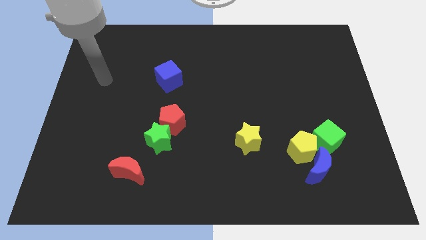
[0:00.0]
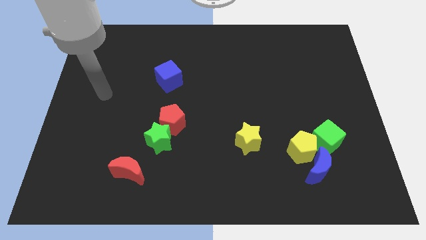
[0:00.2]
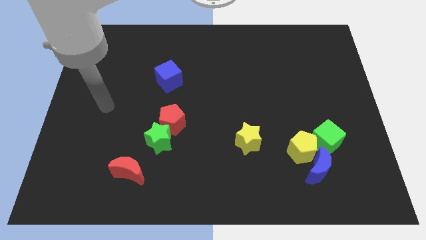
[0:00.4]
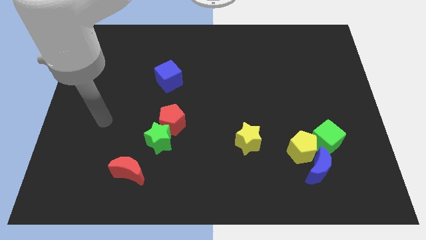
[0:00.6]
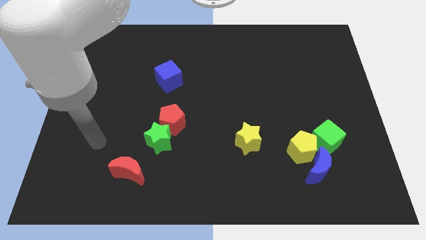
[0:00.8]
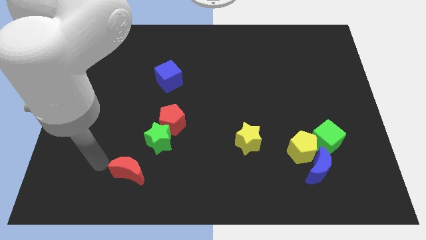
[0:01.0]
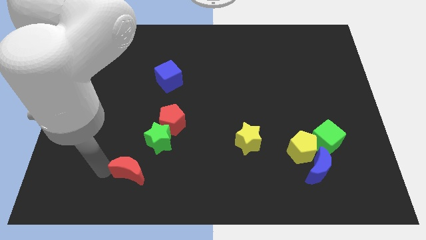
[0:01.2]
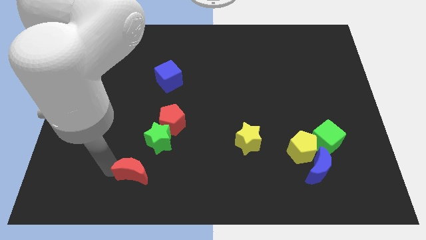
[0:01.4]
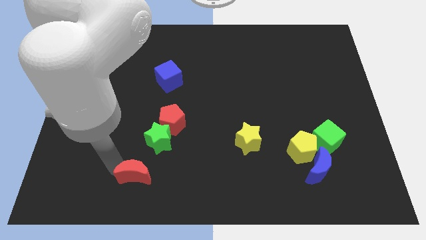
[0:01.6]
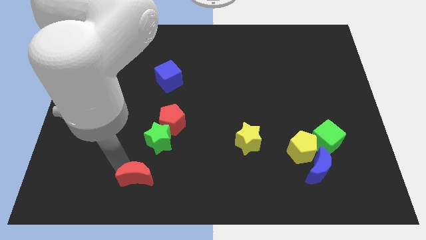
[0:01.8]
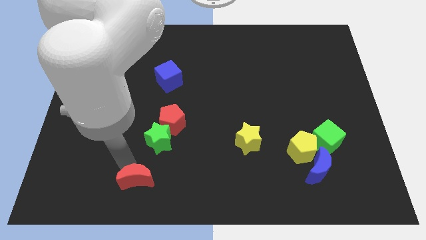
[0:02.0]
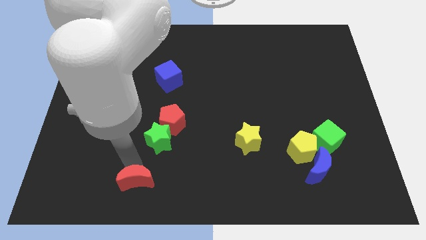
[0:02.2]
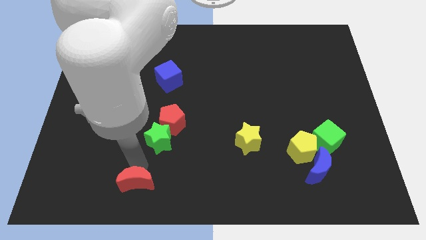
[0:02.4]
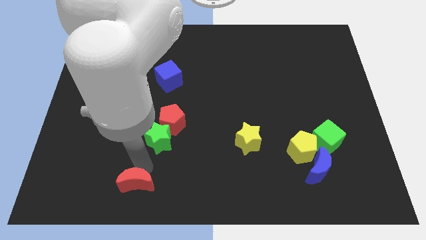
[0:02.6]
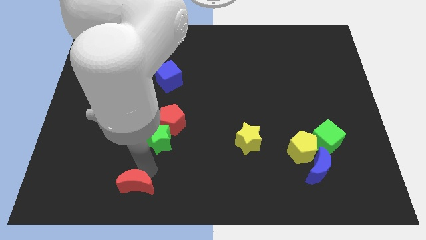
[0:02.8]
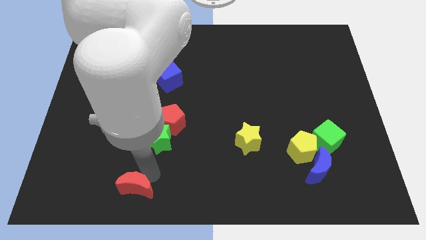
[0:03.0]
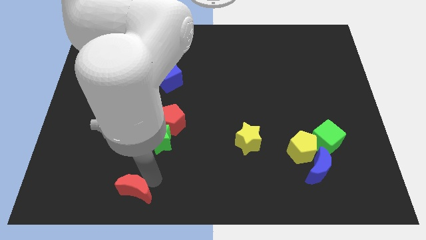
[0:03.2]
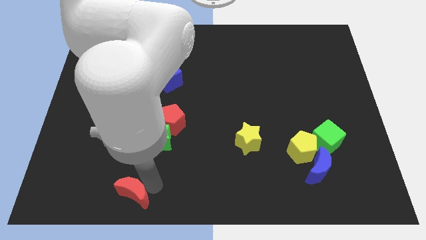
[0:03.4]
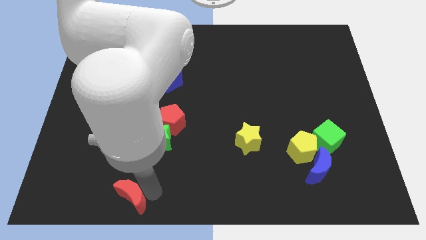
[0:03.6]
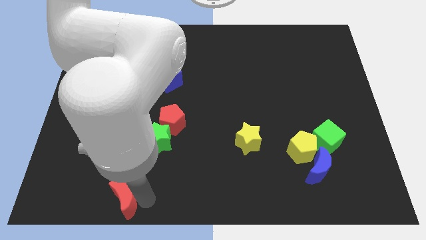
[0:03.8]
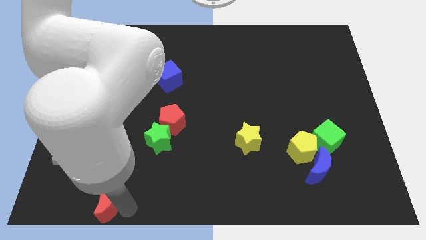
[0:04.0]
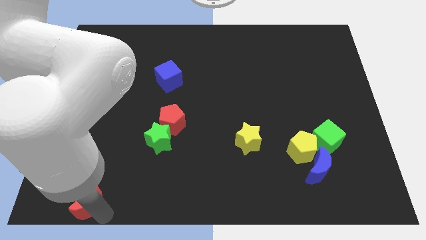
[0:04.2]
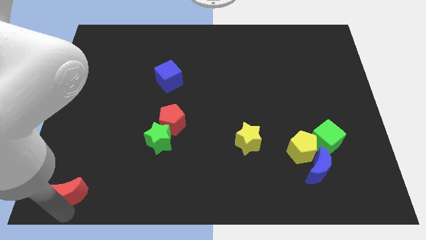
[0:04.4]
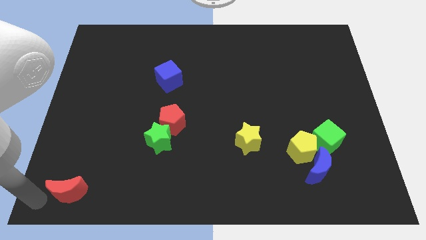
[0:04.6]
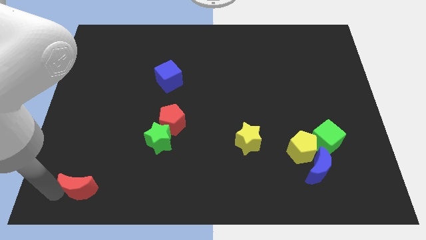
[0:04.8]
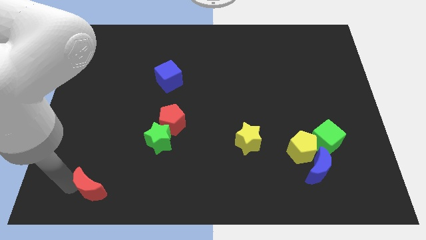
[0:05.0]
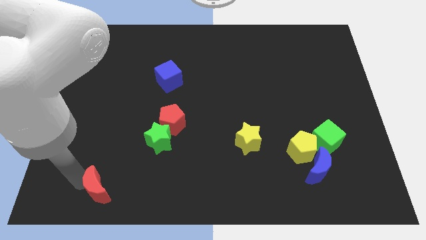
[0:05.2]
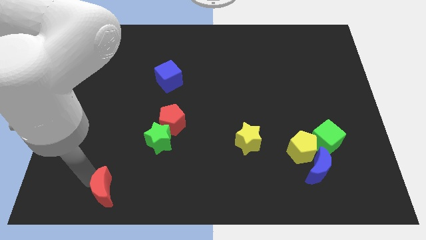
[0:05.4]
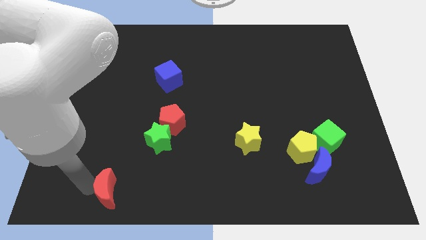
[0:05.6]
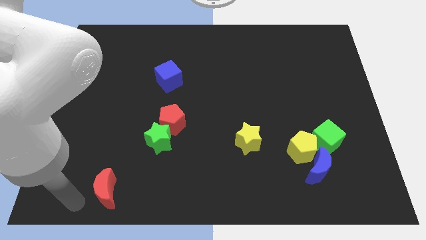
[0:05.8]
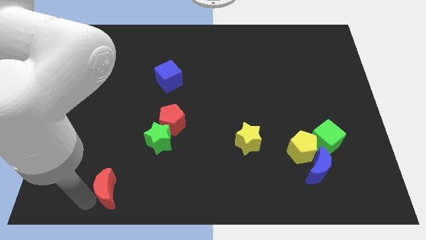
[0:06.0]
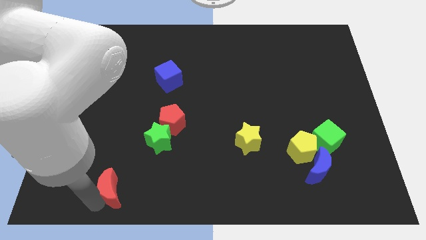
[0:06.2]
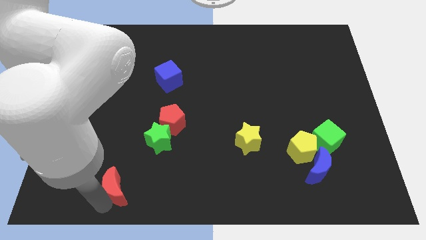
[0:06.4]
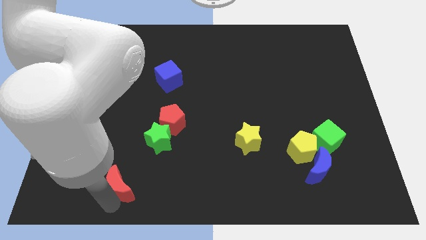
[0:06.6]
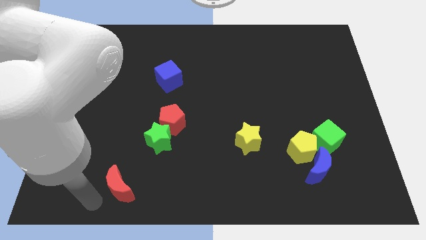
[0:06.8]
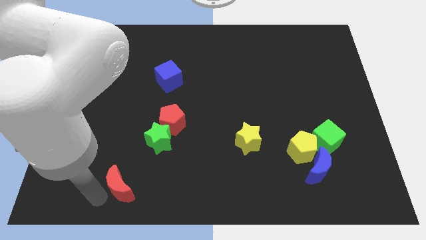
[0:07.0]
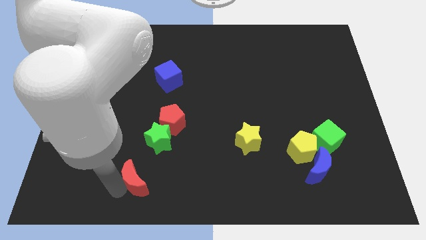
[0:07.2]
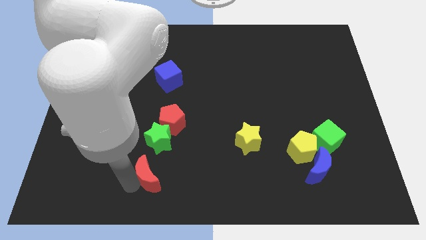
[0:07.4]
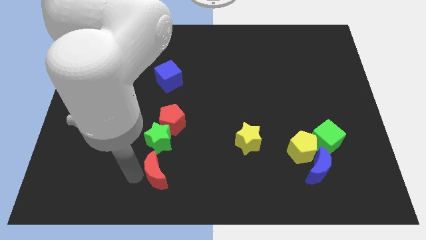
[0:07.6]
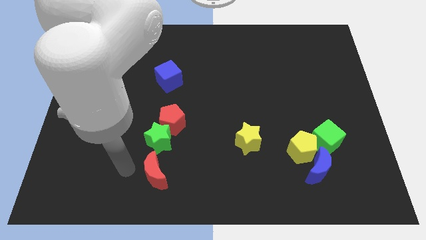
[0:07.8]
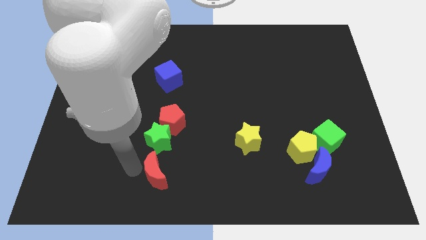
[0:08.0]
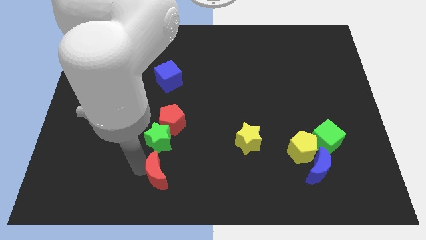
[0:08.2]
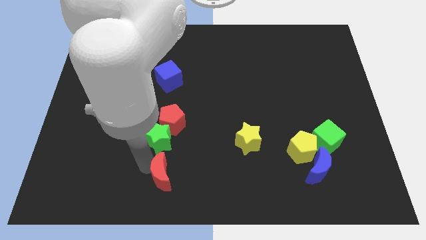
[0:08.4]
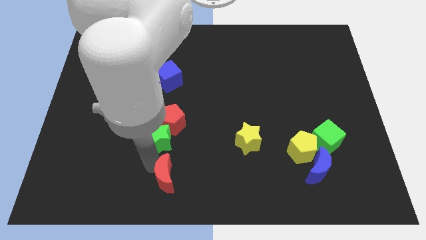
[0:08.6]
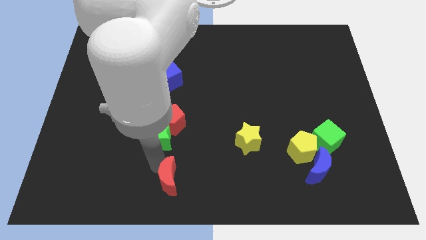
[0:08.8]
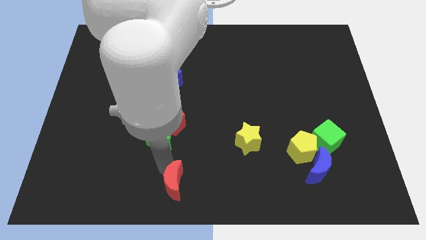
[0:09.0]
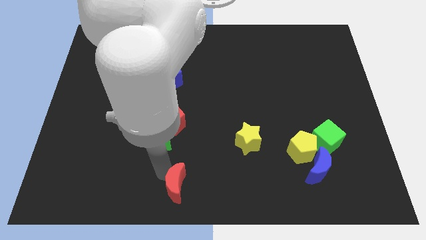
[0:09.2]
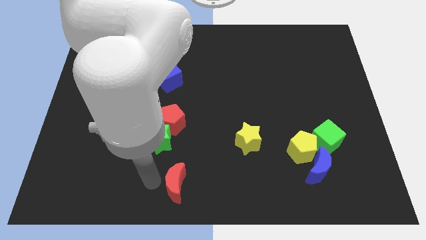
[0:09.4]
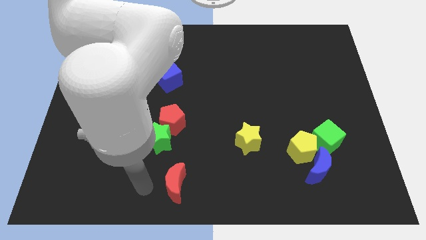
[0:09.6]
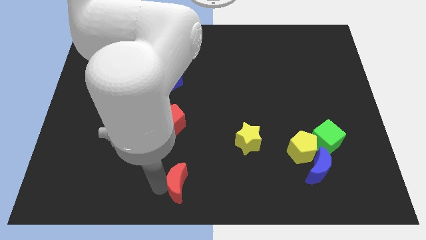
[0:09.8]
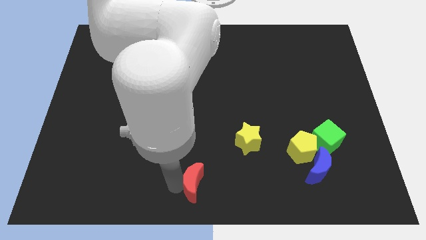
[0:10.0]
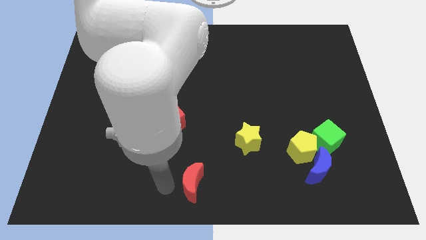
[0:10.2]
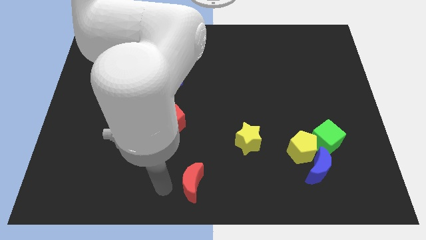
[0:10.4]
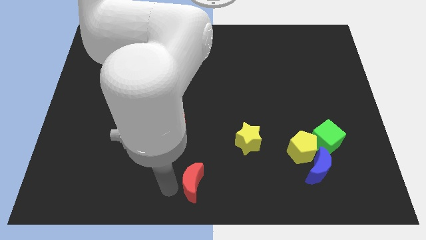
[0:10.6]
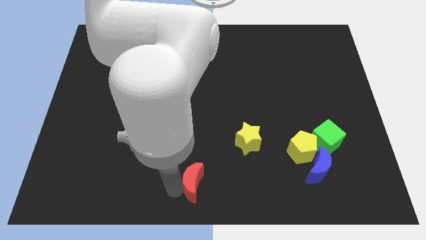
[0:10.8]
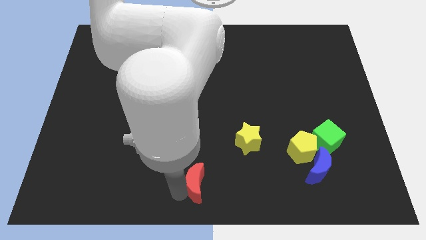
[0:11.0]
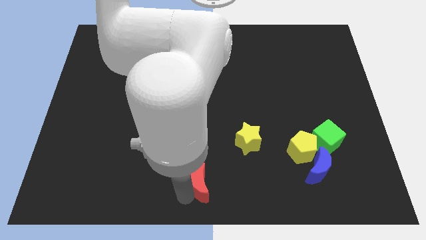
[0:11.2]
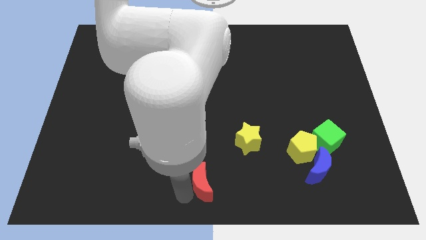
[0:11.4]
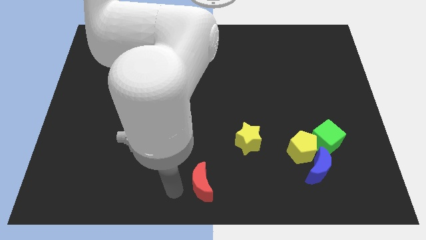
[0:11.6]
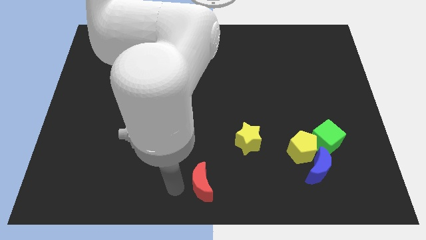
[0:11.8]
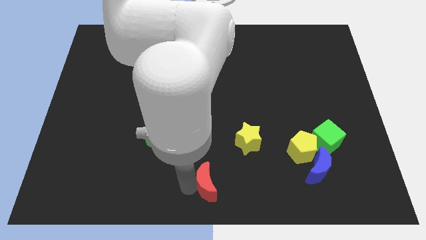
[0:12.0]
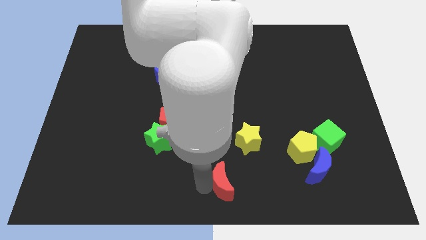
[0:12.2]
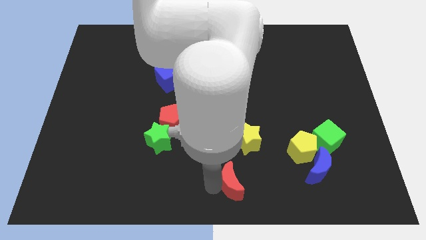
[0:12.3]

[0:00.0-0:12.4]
push the red moon to the right

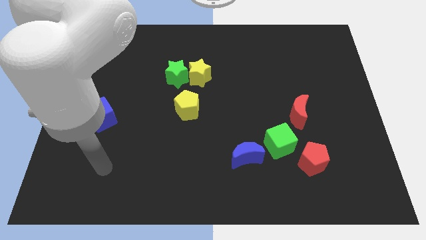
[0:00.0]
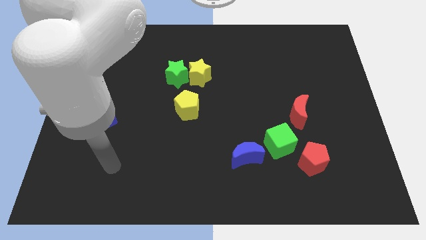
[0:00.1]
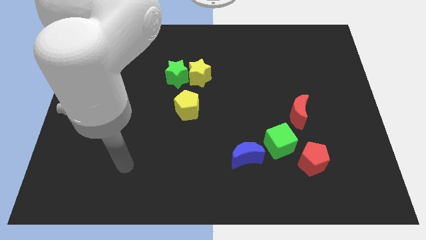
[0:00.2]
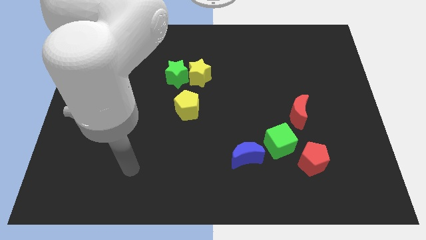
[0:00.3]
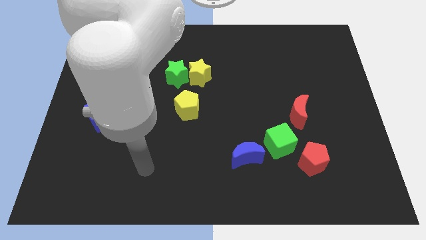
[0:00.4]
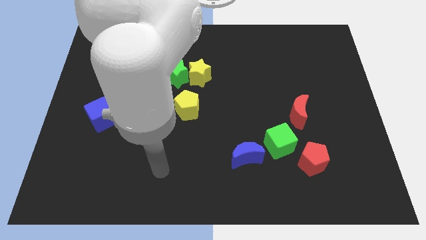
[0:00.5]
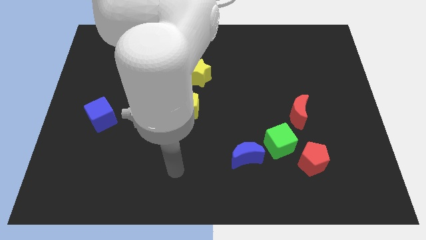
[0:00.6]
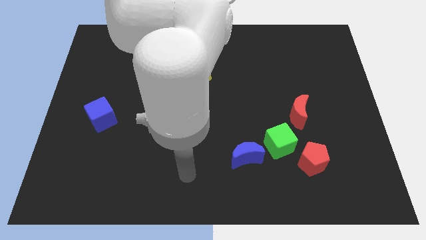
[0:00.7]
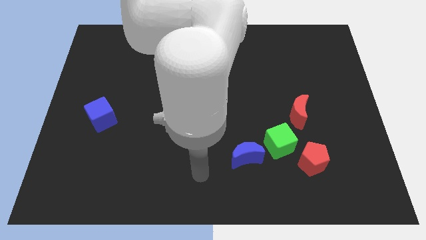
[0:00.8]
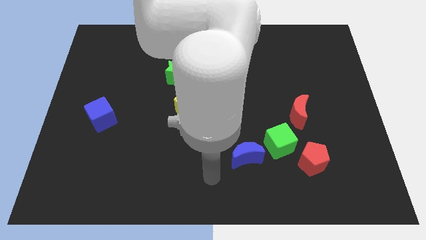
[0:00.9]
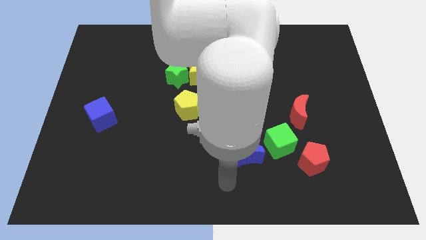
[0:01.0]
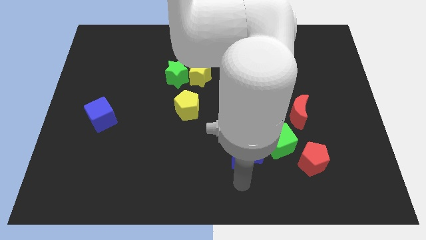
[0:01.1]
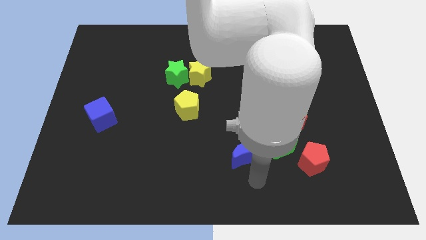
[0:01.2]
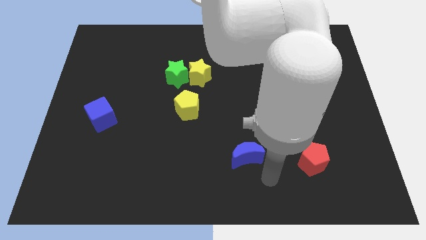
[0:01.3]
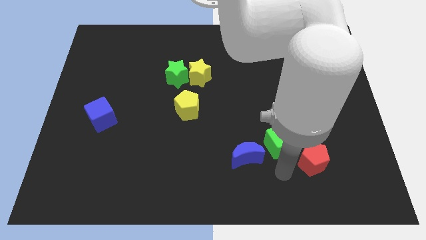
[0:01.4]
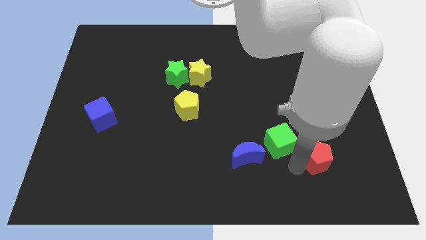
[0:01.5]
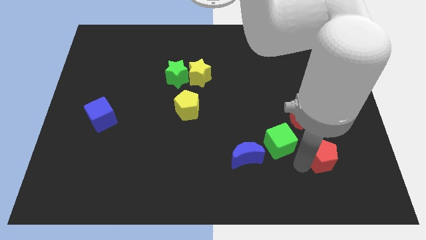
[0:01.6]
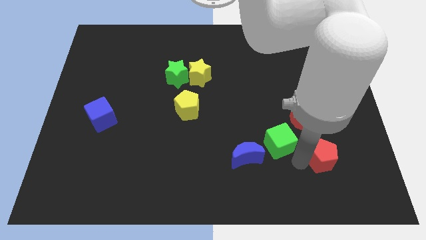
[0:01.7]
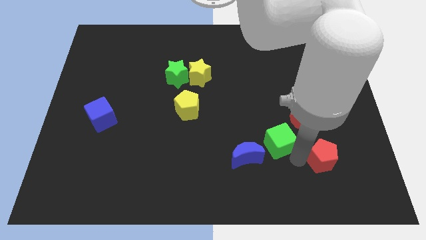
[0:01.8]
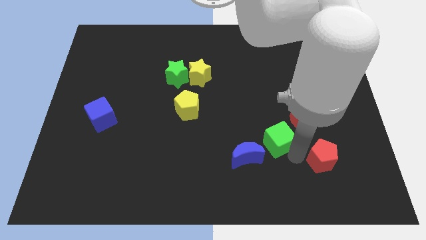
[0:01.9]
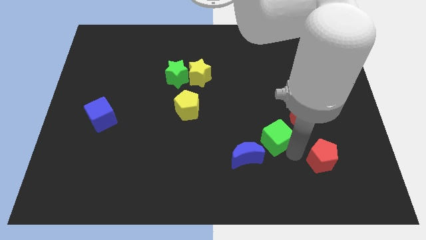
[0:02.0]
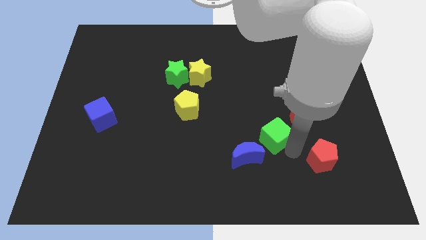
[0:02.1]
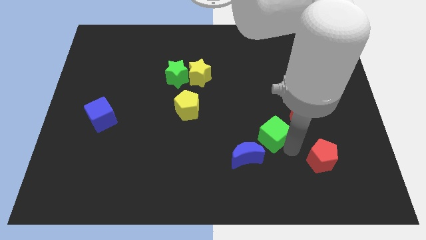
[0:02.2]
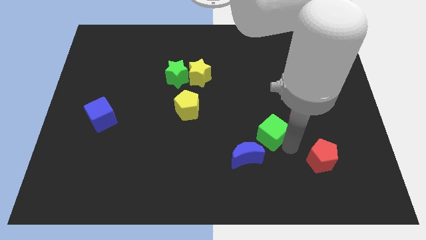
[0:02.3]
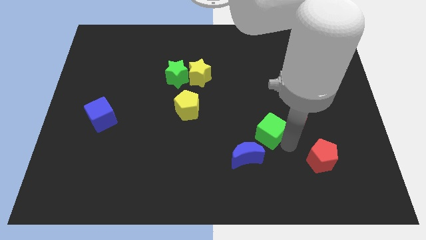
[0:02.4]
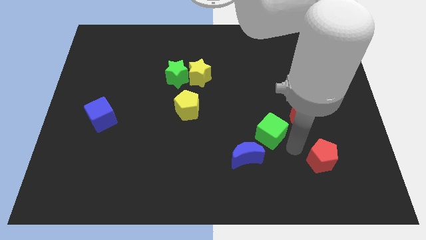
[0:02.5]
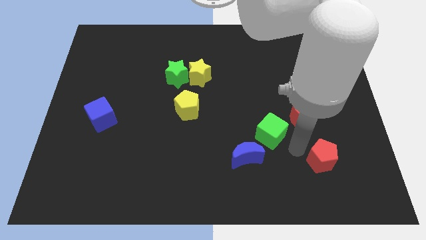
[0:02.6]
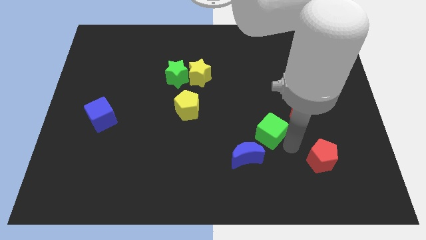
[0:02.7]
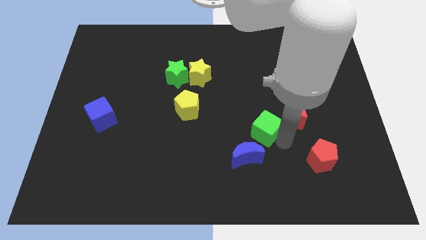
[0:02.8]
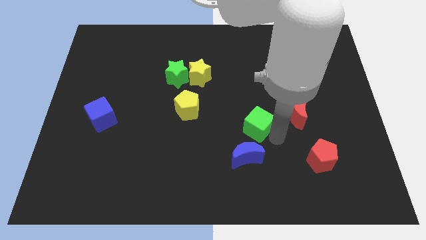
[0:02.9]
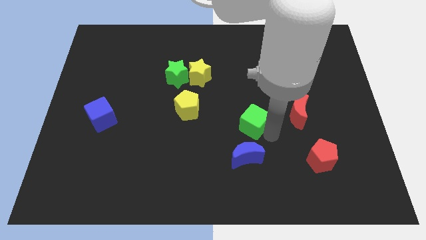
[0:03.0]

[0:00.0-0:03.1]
move the green cube diagonally upwards and left a bit
